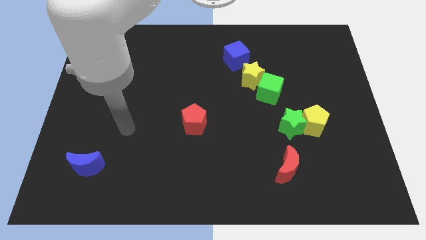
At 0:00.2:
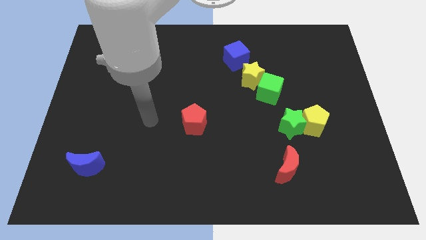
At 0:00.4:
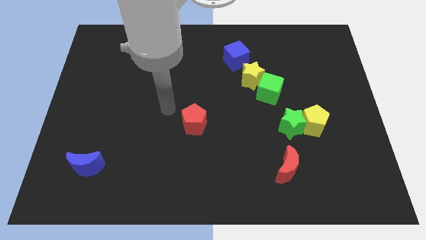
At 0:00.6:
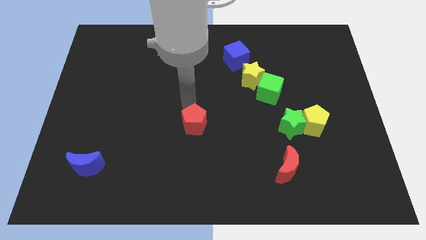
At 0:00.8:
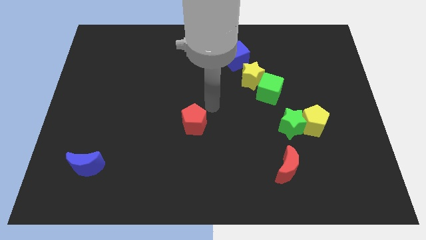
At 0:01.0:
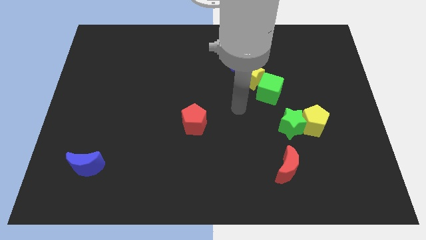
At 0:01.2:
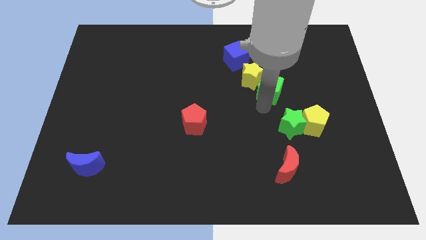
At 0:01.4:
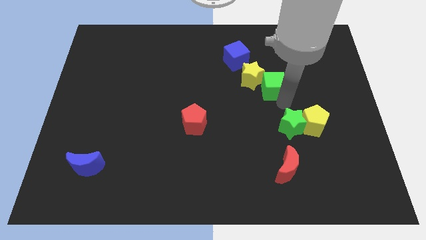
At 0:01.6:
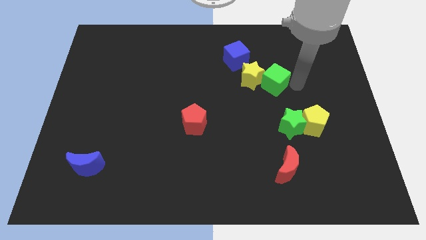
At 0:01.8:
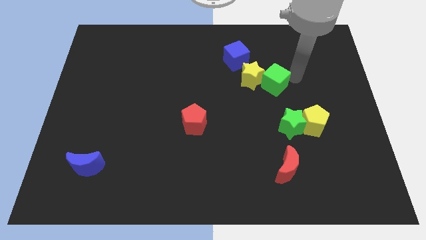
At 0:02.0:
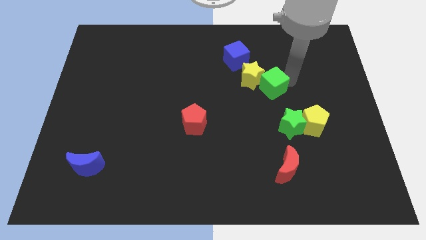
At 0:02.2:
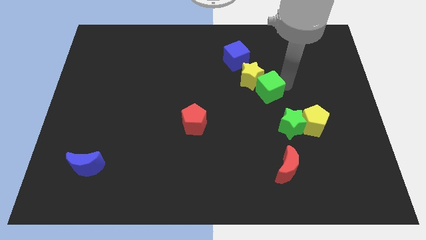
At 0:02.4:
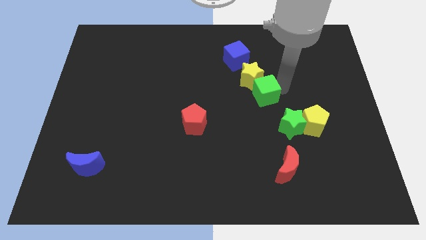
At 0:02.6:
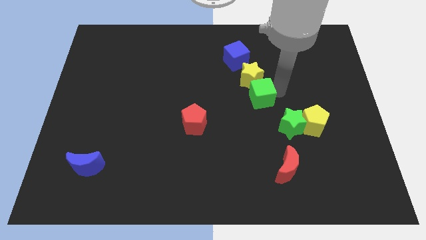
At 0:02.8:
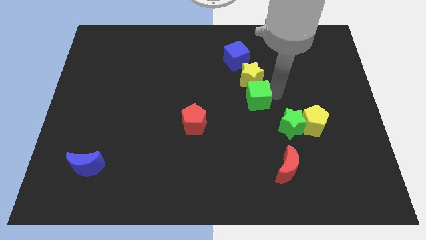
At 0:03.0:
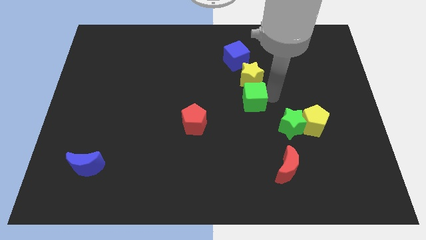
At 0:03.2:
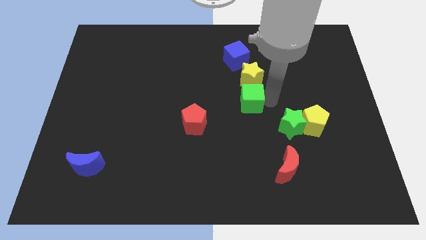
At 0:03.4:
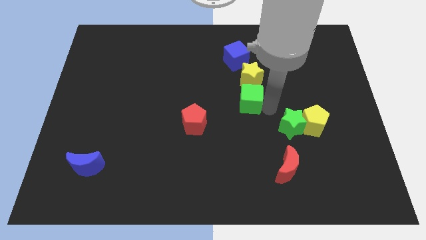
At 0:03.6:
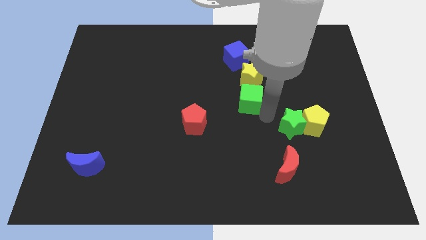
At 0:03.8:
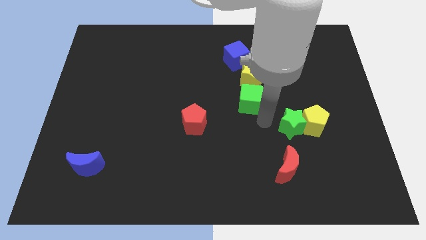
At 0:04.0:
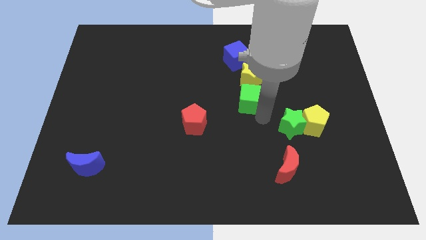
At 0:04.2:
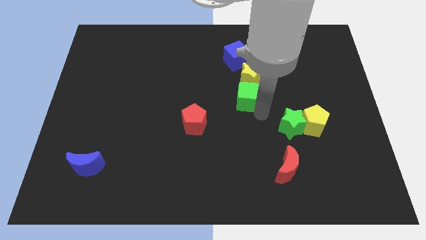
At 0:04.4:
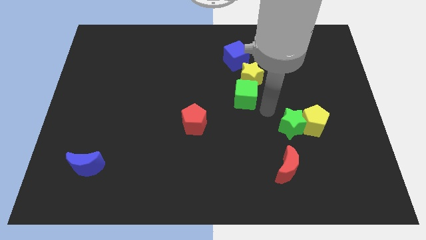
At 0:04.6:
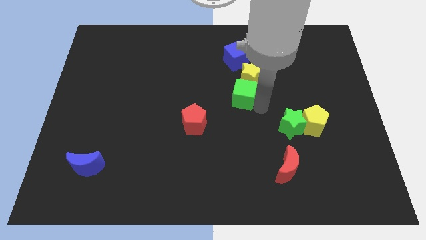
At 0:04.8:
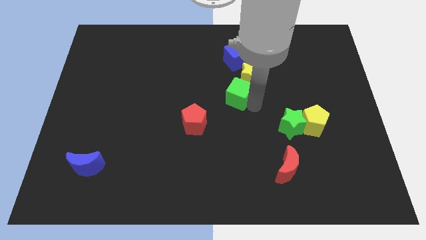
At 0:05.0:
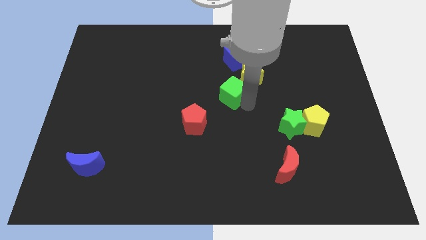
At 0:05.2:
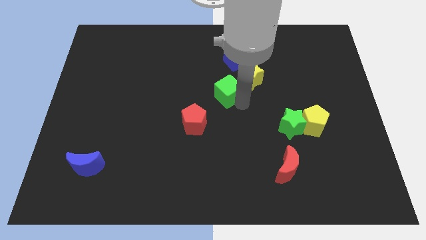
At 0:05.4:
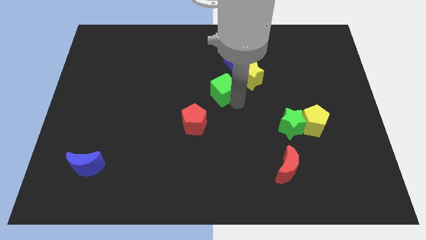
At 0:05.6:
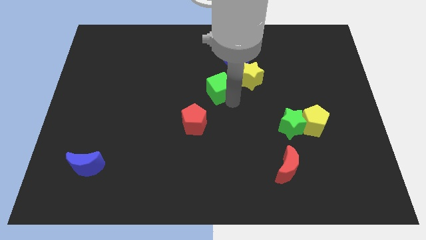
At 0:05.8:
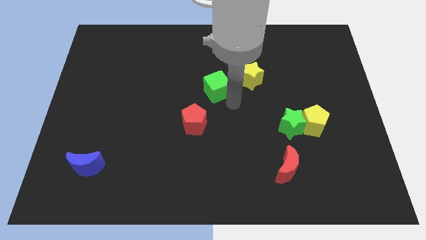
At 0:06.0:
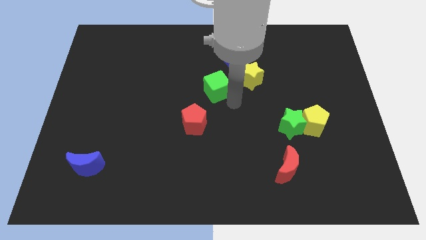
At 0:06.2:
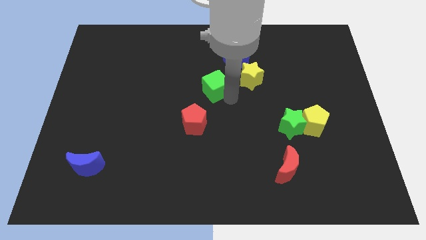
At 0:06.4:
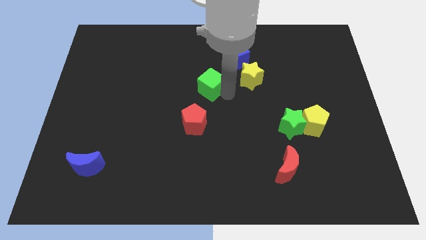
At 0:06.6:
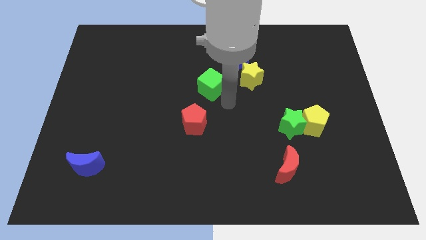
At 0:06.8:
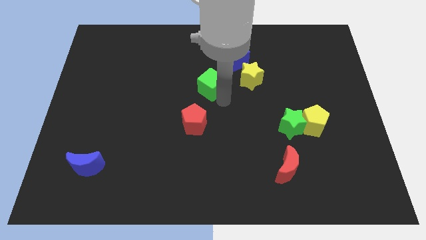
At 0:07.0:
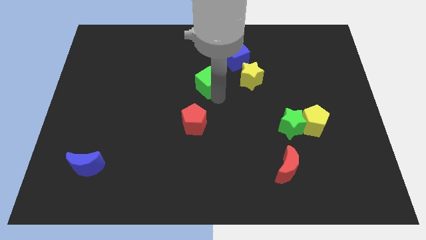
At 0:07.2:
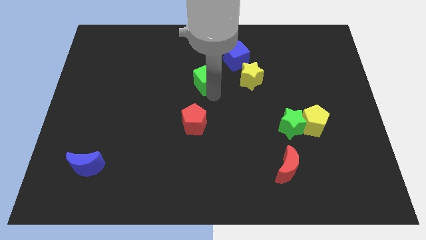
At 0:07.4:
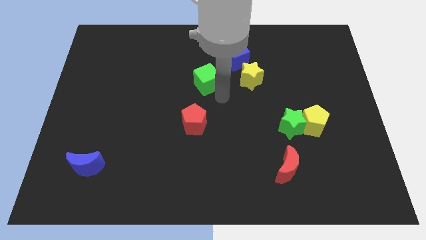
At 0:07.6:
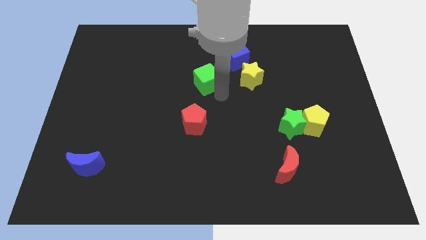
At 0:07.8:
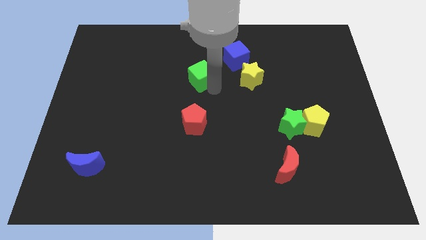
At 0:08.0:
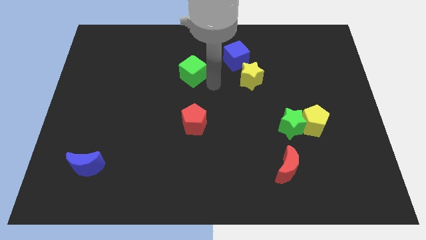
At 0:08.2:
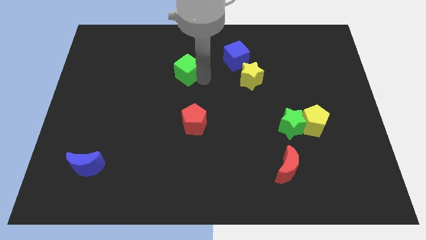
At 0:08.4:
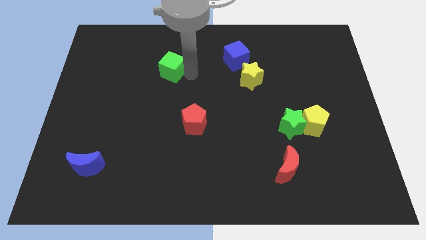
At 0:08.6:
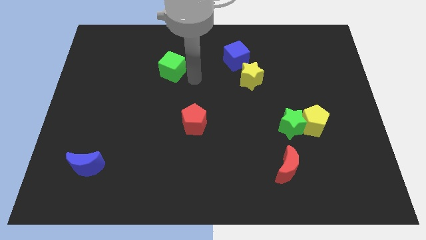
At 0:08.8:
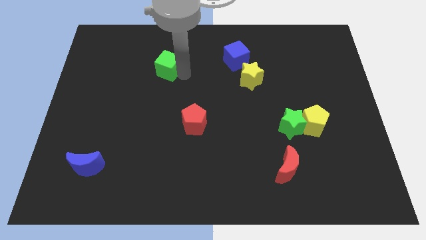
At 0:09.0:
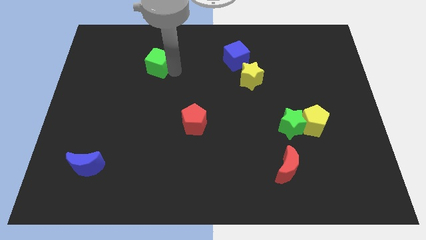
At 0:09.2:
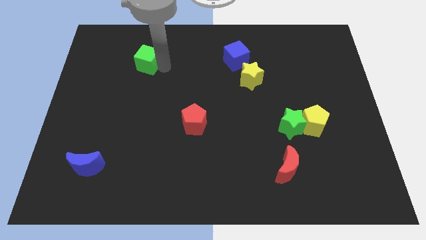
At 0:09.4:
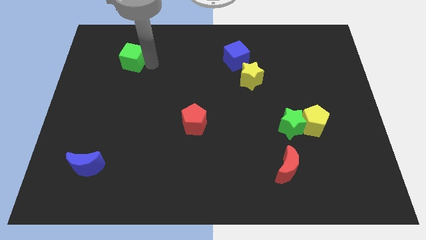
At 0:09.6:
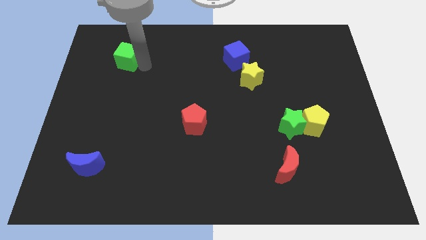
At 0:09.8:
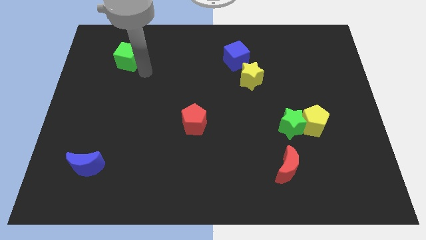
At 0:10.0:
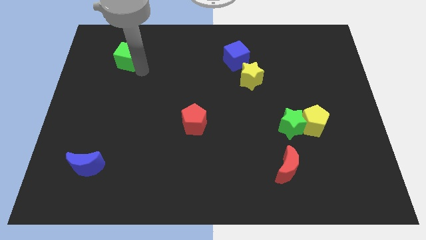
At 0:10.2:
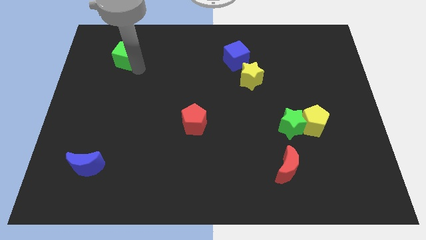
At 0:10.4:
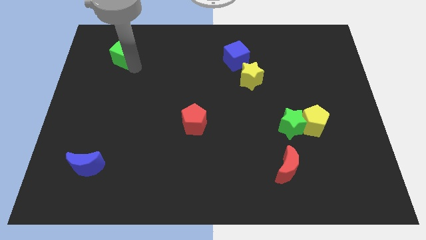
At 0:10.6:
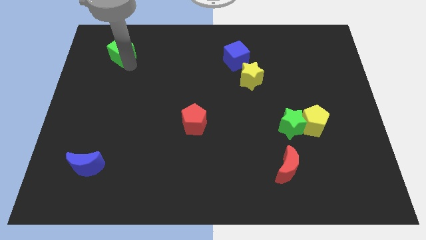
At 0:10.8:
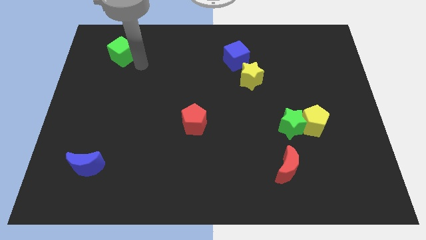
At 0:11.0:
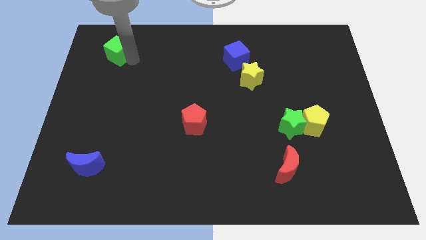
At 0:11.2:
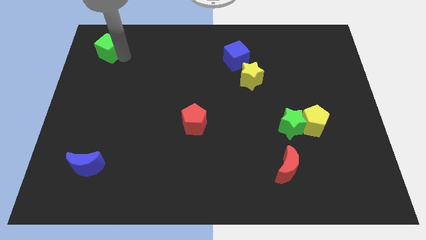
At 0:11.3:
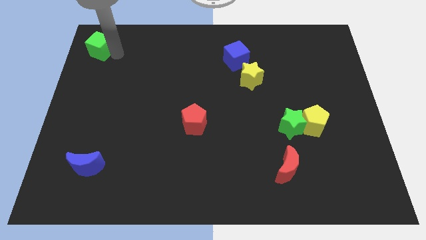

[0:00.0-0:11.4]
push the green cube to the upper left corner

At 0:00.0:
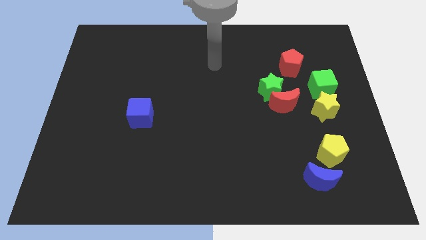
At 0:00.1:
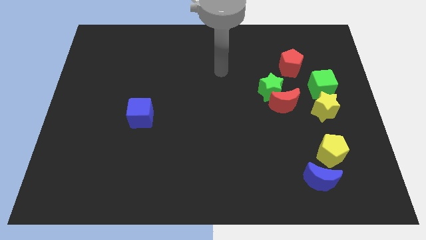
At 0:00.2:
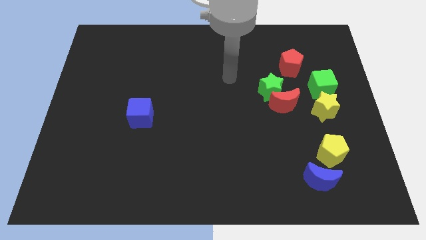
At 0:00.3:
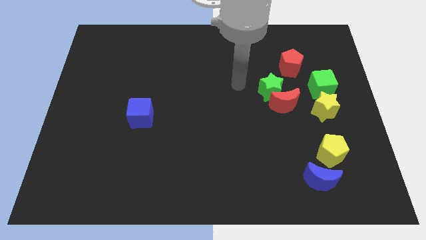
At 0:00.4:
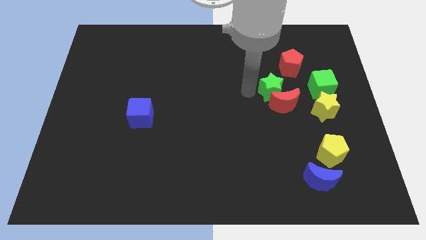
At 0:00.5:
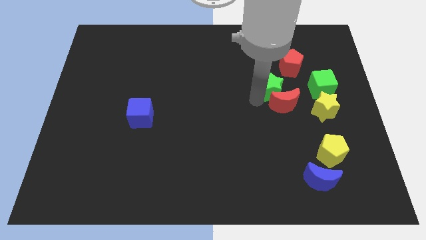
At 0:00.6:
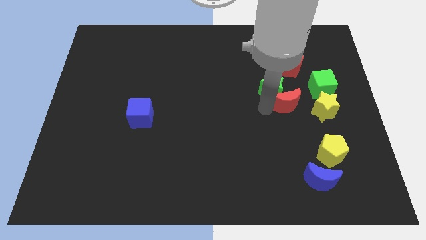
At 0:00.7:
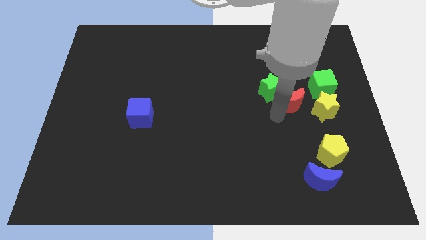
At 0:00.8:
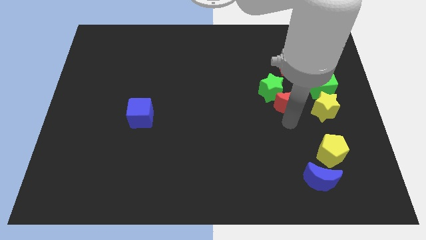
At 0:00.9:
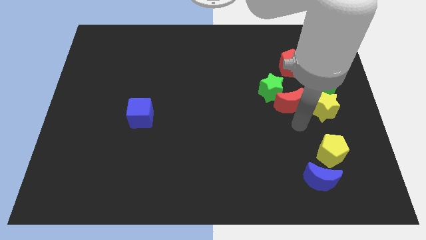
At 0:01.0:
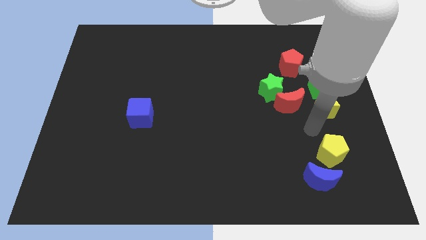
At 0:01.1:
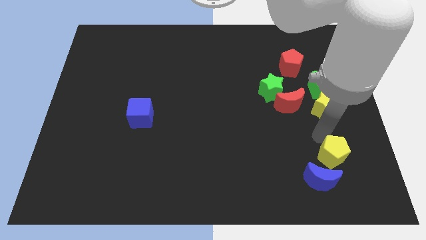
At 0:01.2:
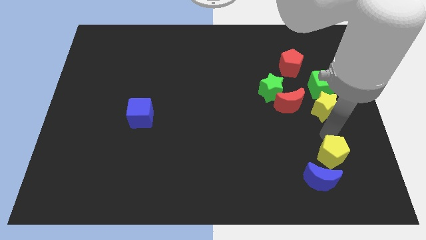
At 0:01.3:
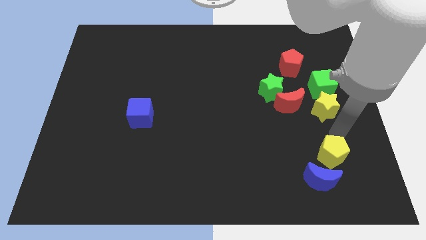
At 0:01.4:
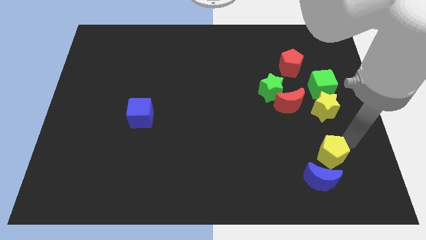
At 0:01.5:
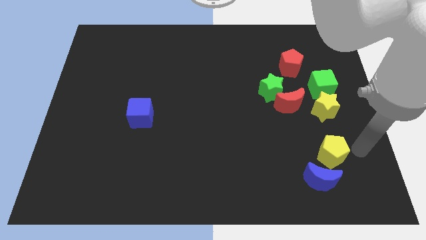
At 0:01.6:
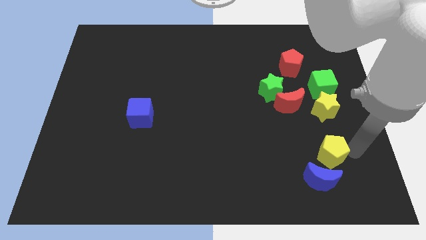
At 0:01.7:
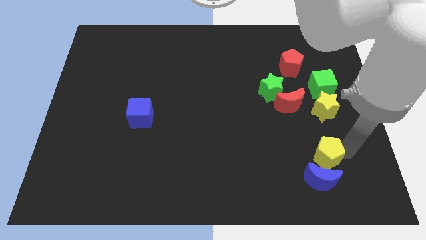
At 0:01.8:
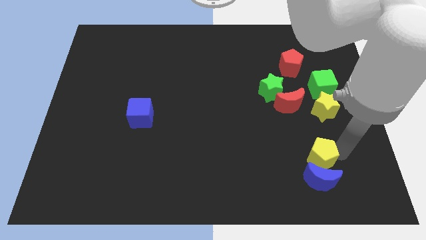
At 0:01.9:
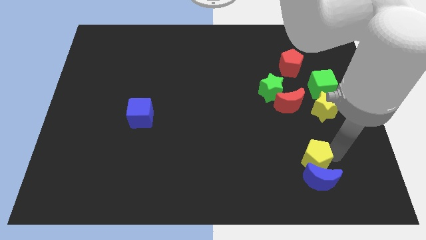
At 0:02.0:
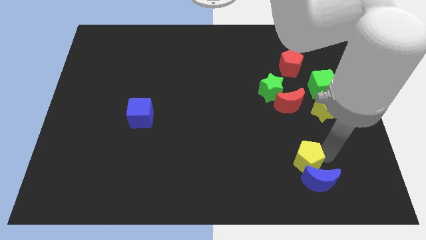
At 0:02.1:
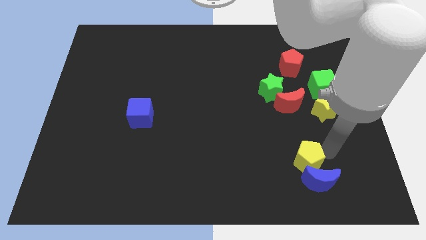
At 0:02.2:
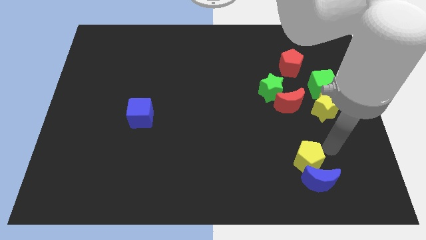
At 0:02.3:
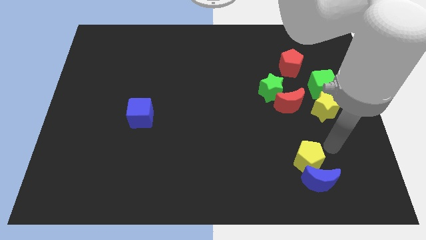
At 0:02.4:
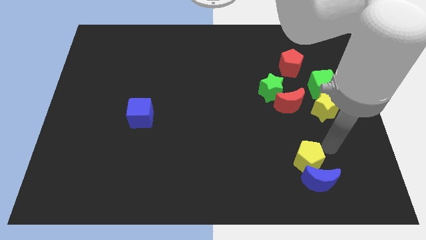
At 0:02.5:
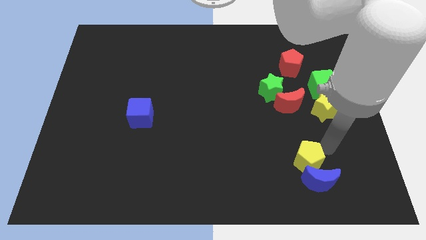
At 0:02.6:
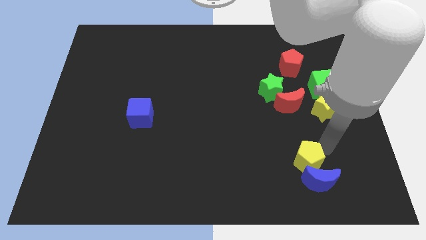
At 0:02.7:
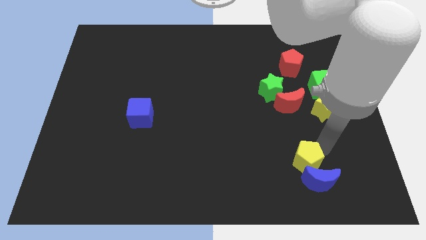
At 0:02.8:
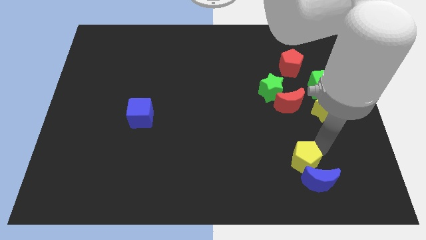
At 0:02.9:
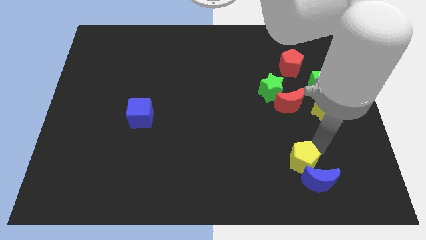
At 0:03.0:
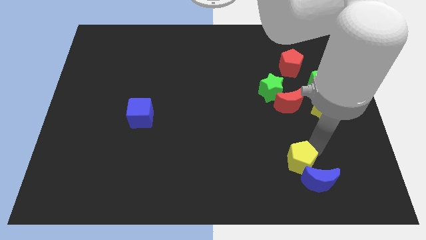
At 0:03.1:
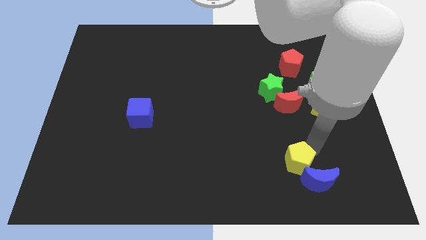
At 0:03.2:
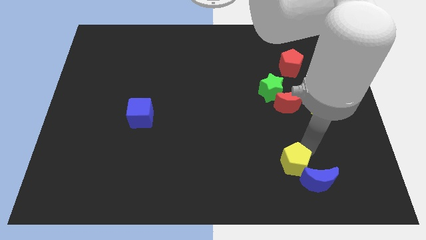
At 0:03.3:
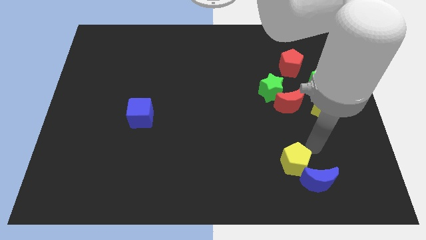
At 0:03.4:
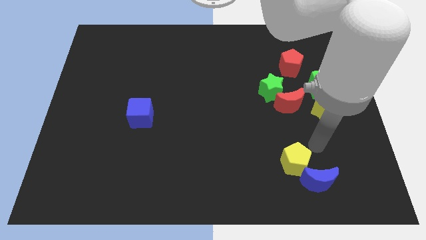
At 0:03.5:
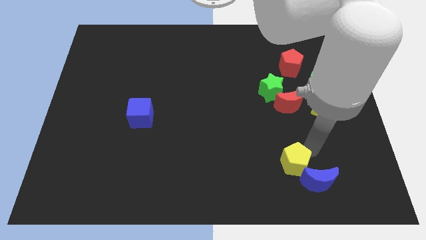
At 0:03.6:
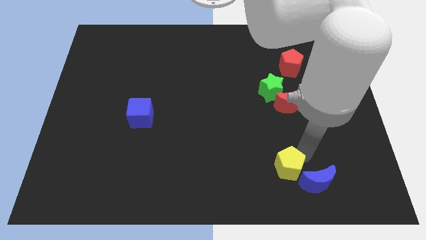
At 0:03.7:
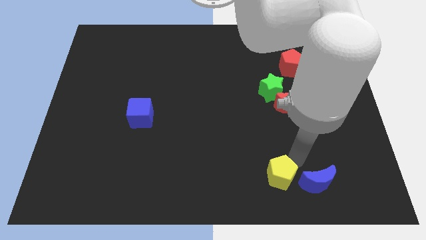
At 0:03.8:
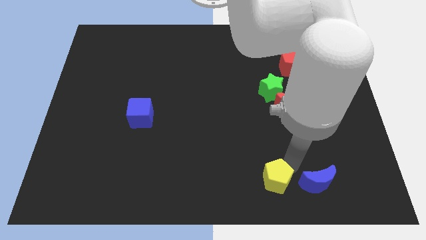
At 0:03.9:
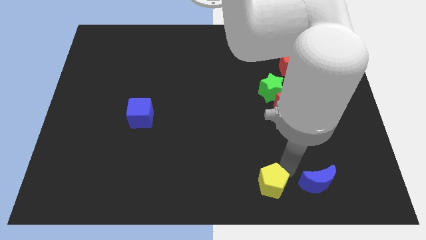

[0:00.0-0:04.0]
push the yellow pentagon to the bottom side
